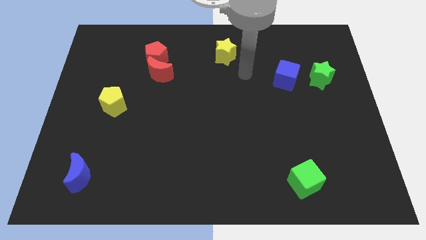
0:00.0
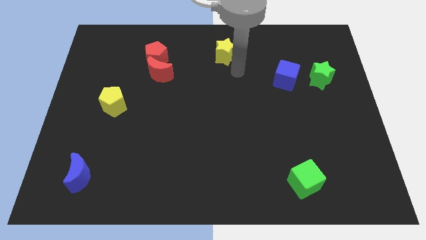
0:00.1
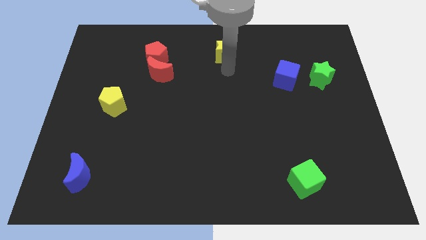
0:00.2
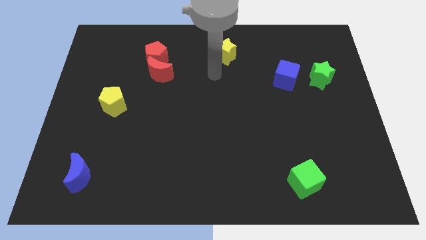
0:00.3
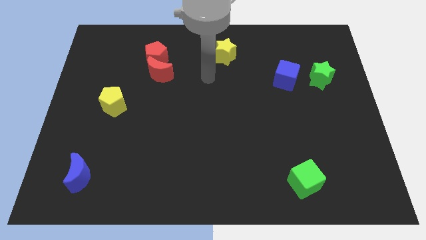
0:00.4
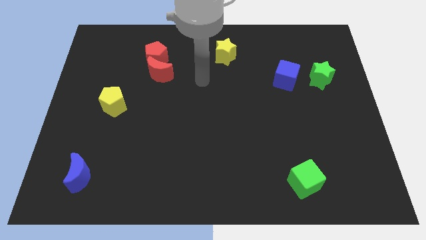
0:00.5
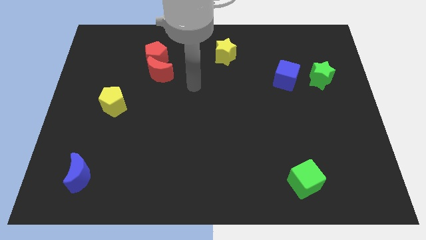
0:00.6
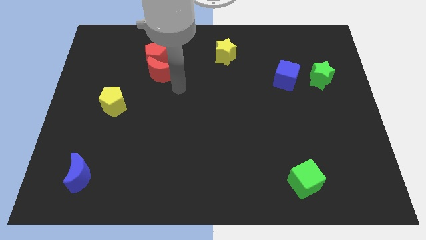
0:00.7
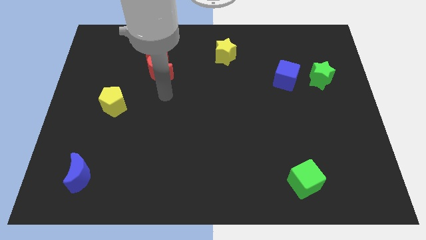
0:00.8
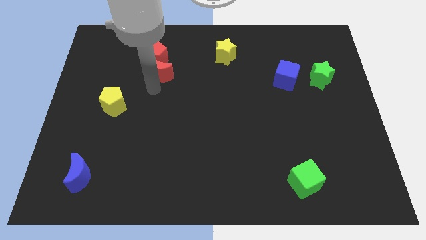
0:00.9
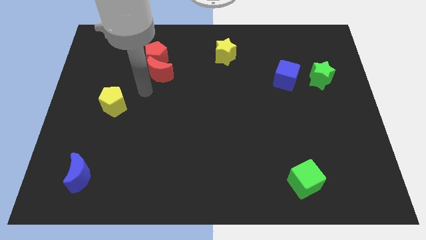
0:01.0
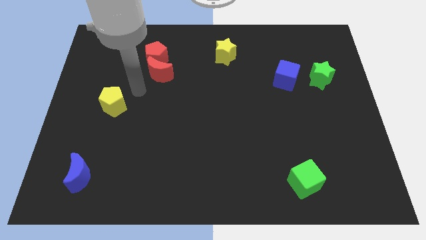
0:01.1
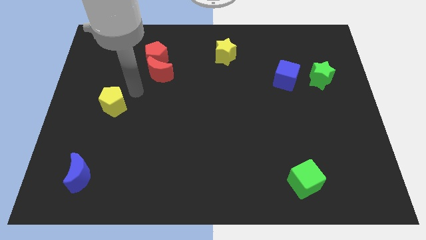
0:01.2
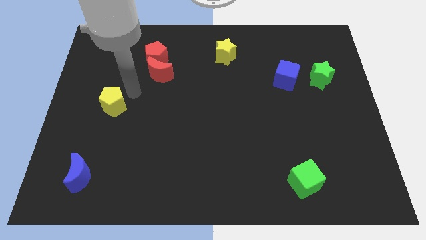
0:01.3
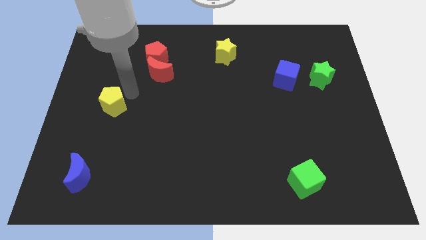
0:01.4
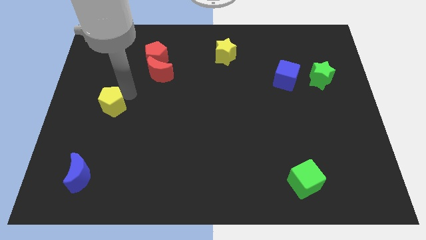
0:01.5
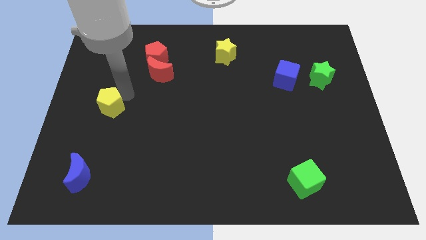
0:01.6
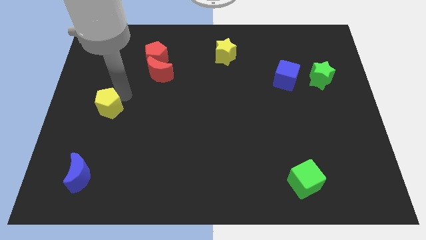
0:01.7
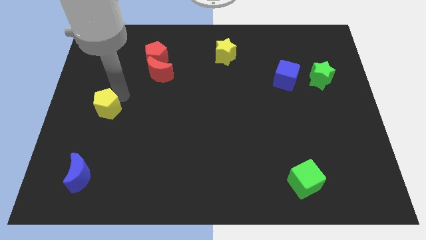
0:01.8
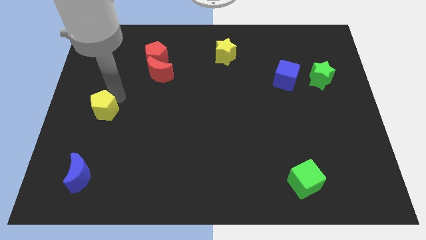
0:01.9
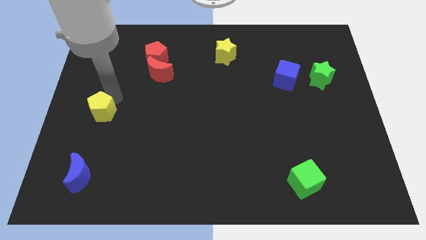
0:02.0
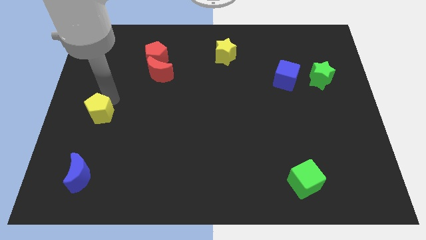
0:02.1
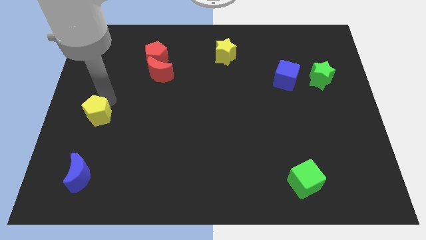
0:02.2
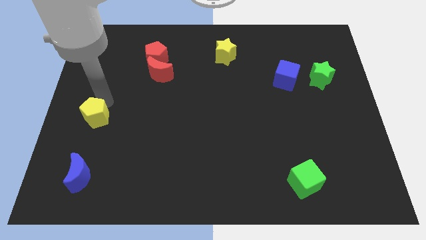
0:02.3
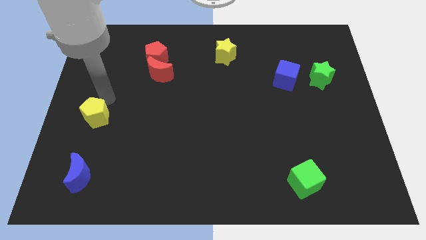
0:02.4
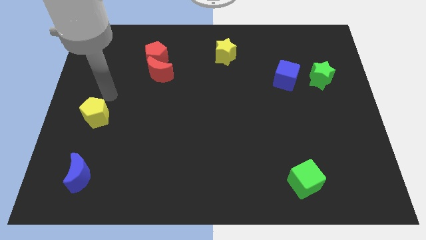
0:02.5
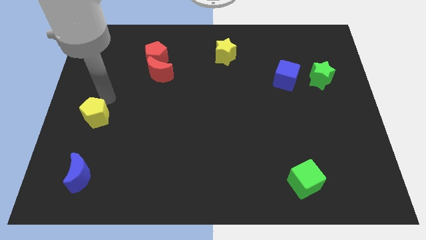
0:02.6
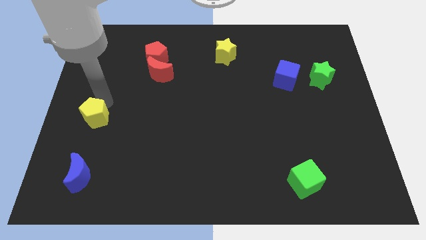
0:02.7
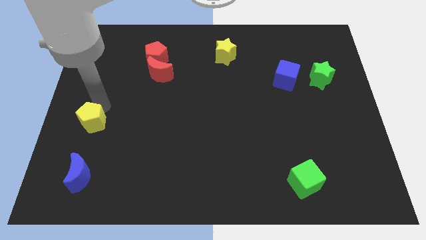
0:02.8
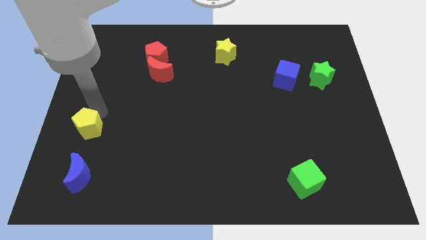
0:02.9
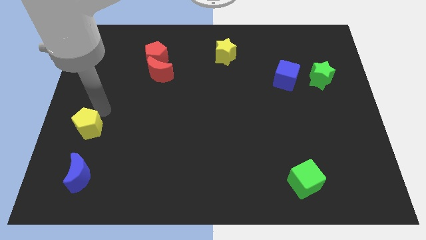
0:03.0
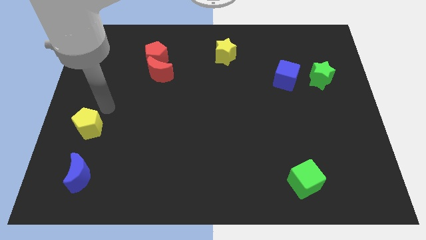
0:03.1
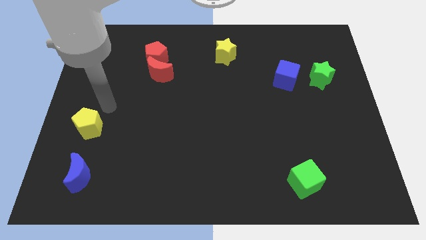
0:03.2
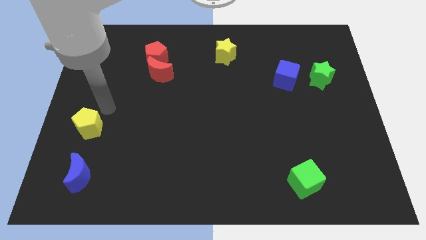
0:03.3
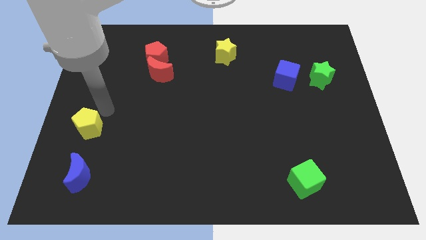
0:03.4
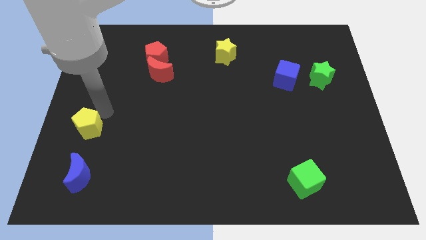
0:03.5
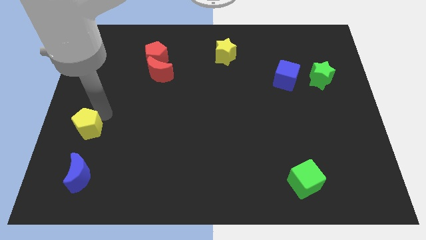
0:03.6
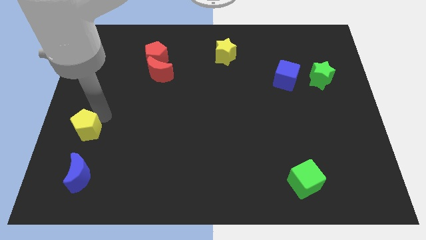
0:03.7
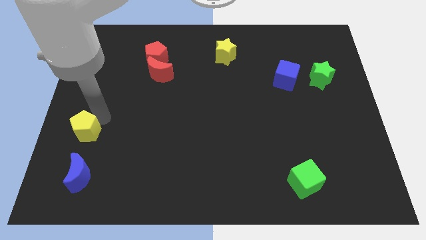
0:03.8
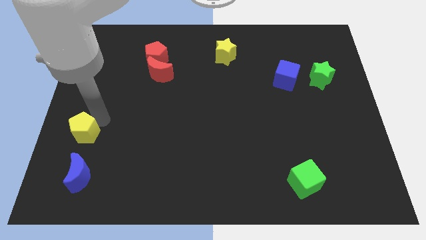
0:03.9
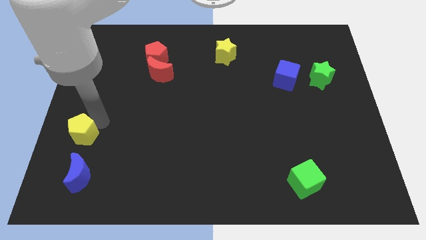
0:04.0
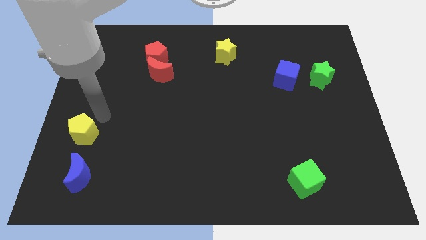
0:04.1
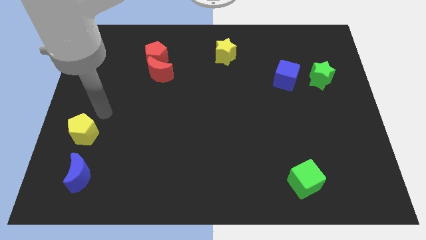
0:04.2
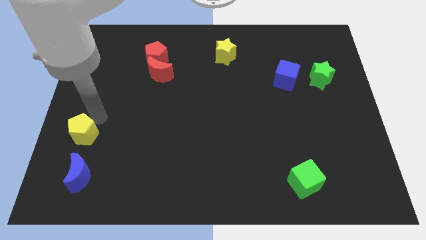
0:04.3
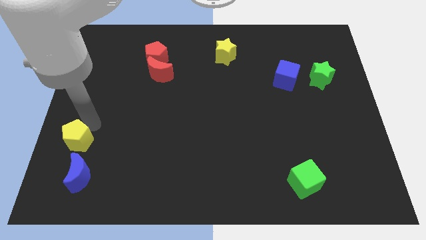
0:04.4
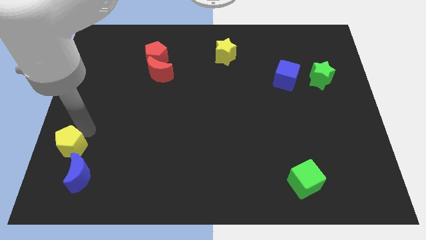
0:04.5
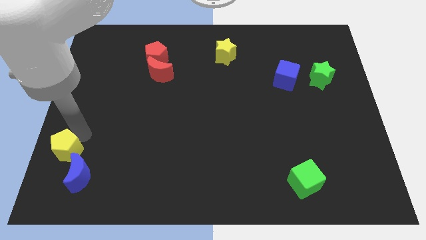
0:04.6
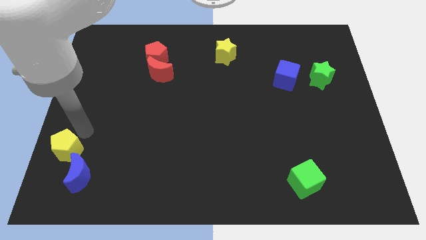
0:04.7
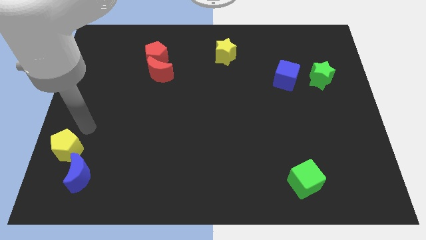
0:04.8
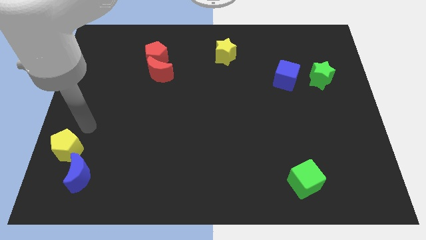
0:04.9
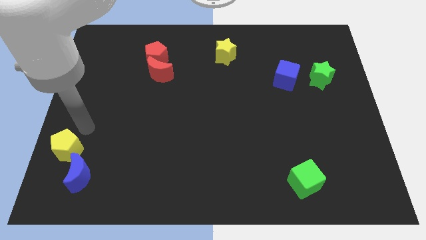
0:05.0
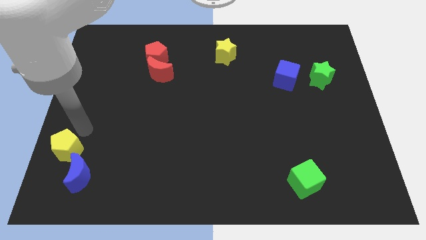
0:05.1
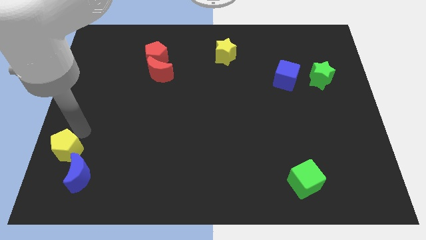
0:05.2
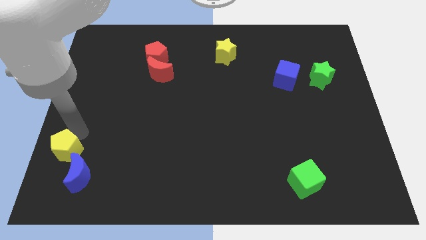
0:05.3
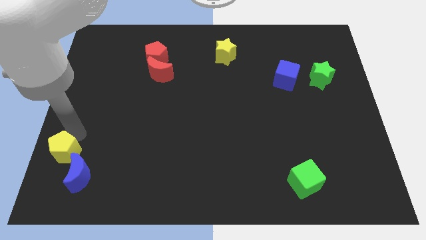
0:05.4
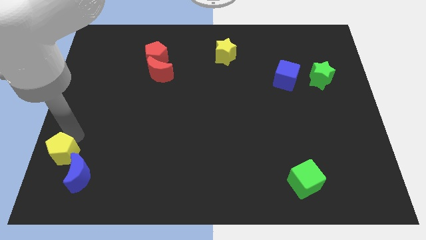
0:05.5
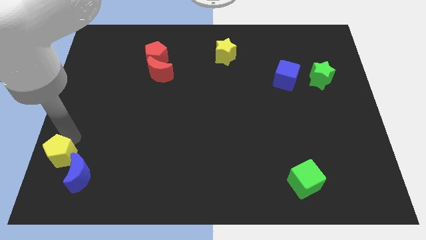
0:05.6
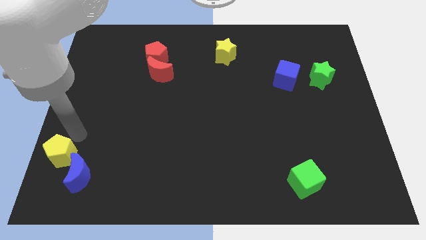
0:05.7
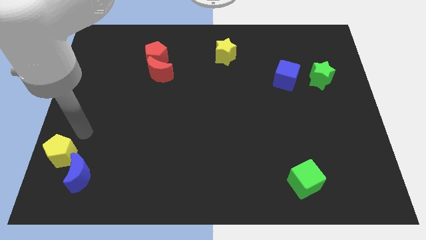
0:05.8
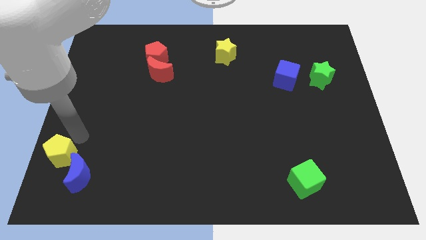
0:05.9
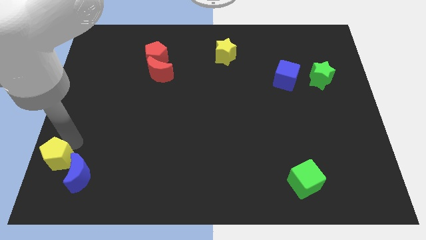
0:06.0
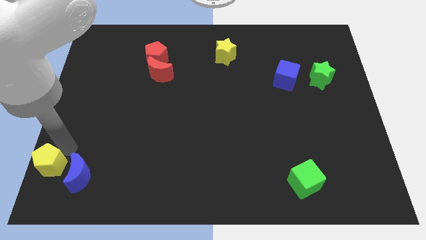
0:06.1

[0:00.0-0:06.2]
slide the yellow pentagon to the bottom left of the board
